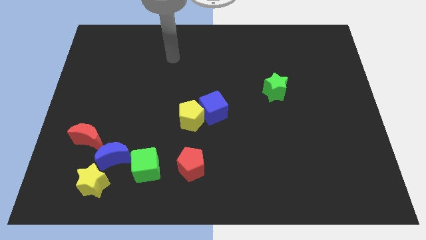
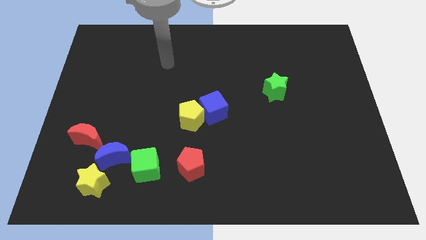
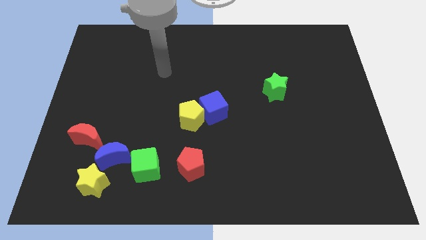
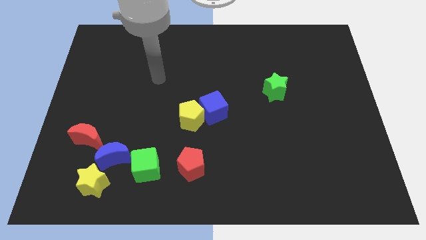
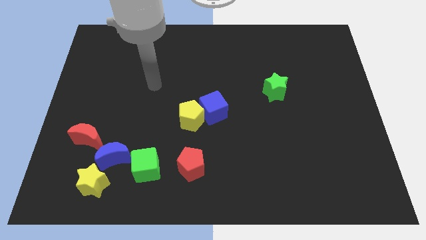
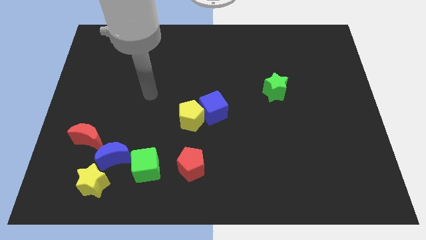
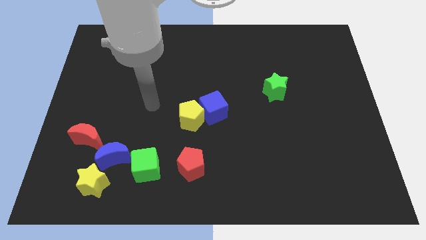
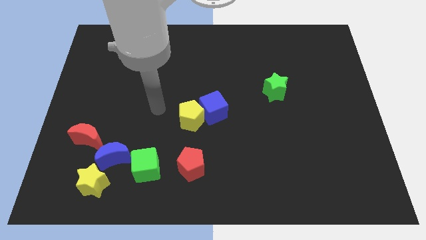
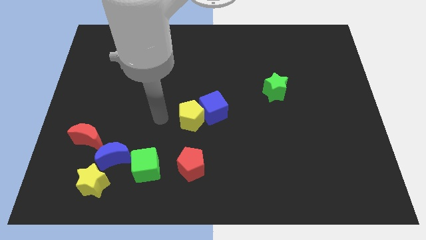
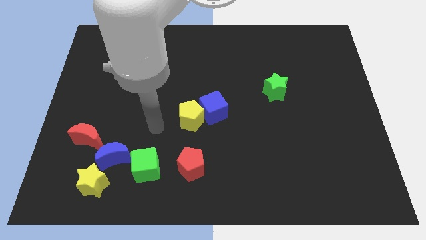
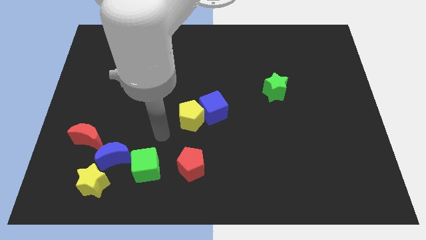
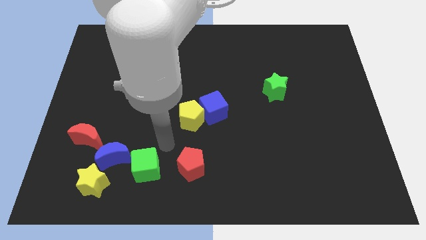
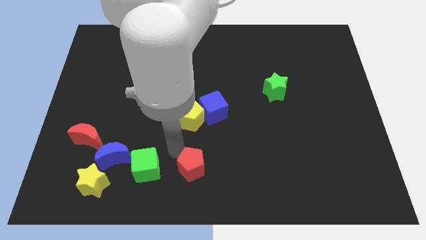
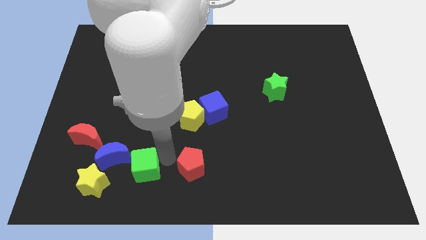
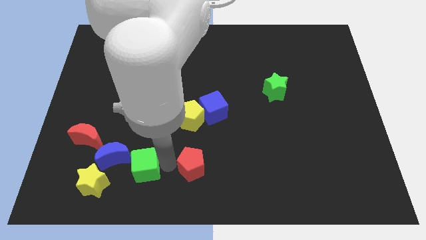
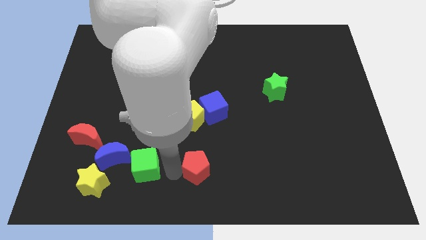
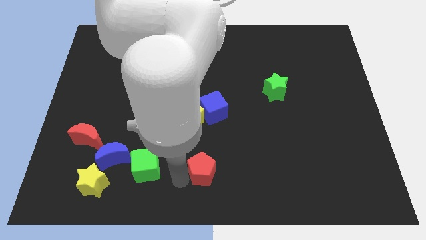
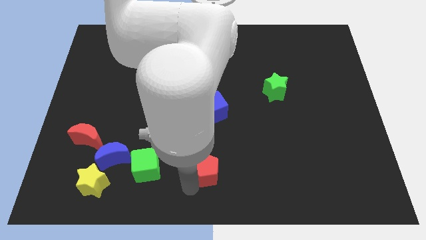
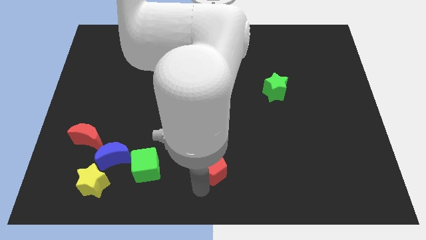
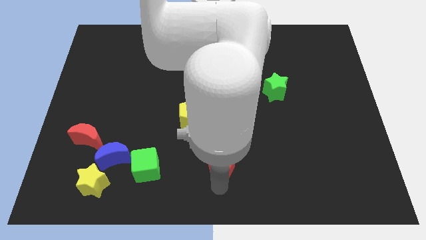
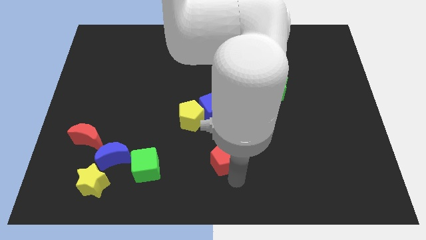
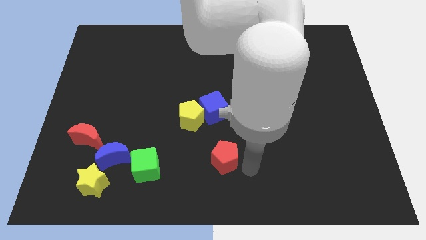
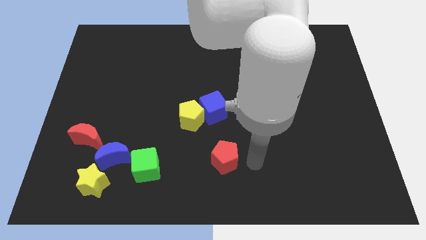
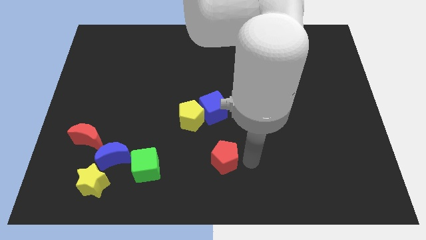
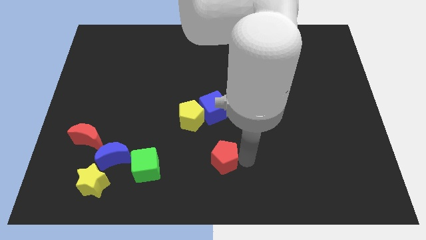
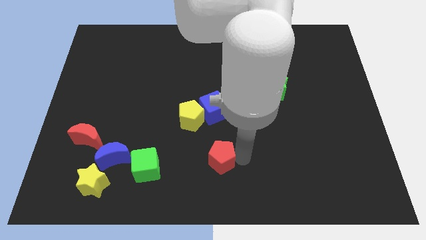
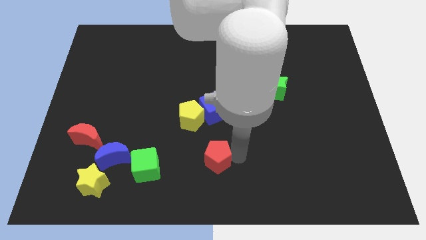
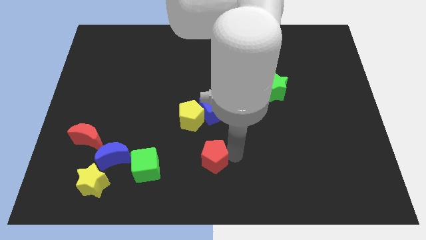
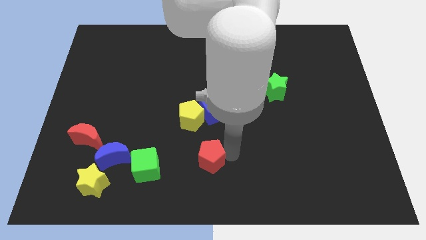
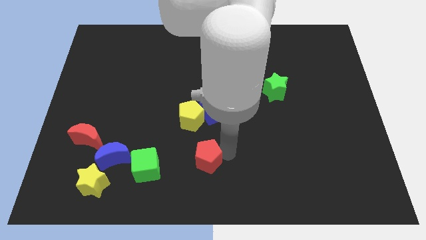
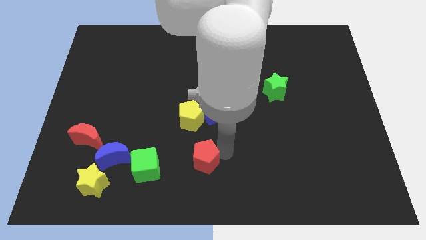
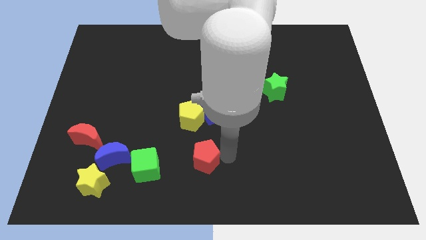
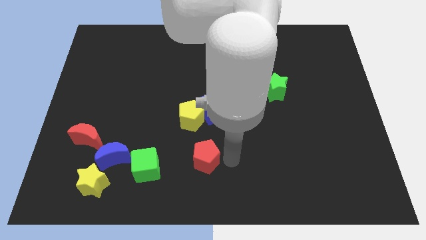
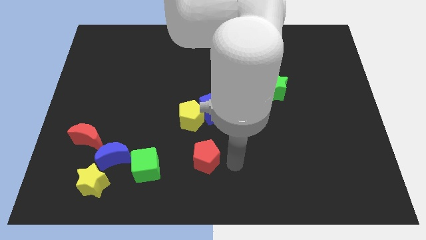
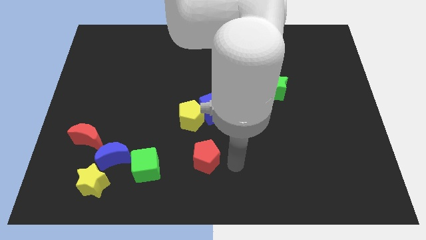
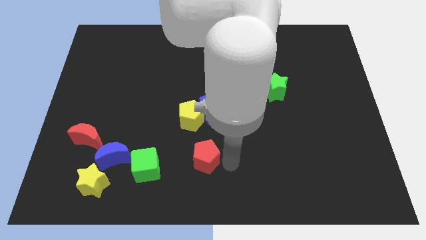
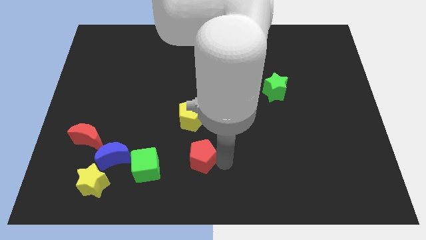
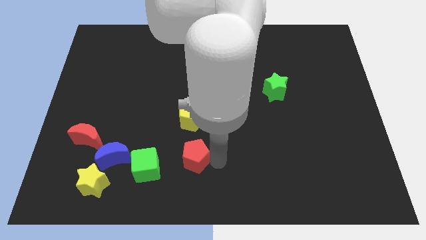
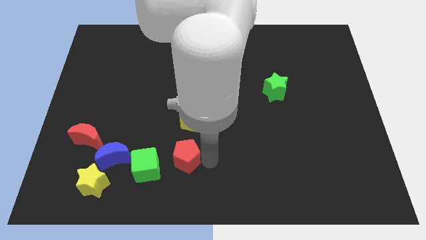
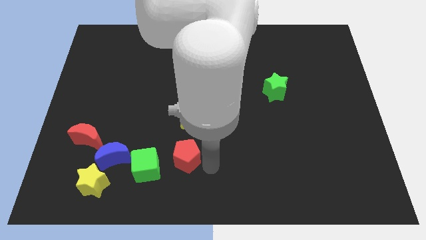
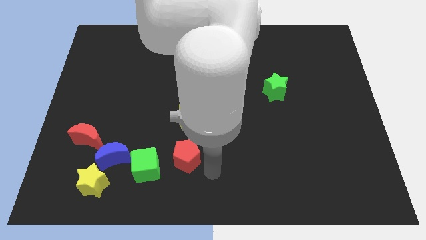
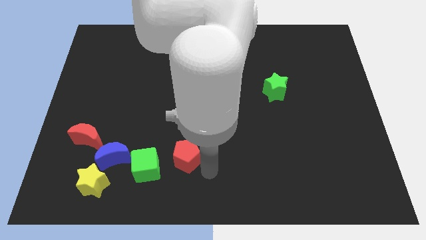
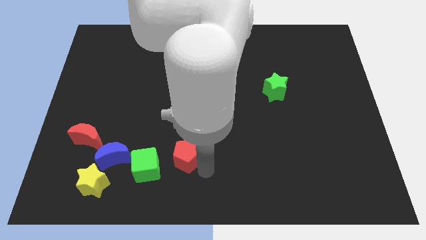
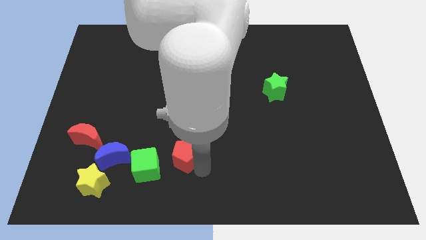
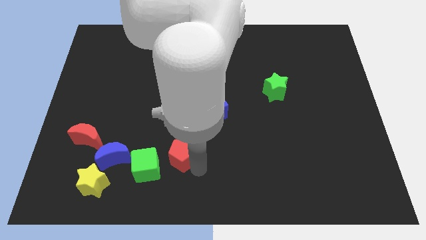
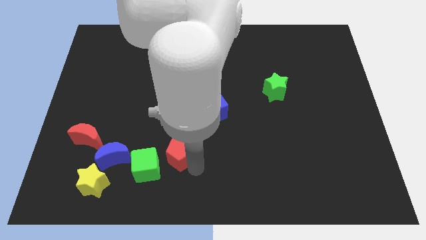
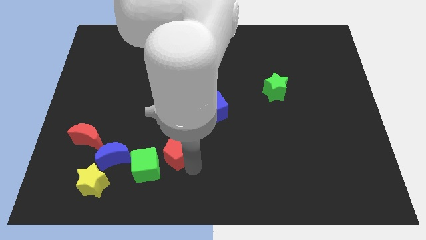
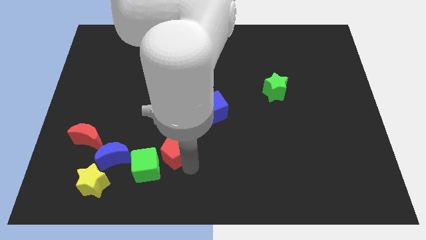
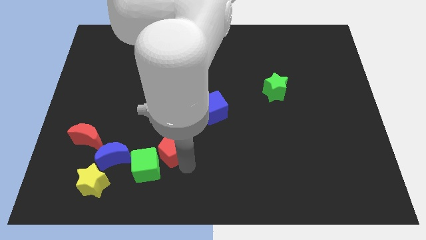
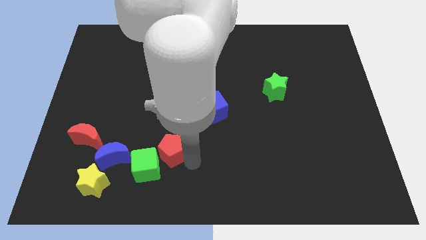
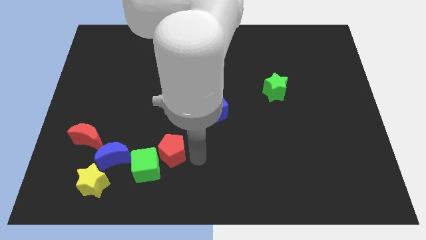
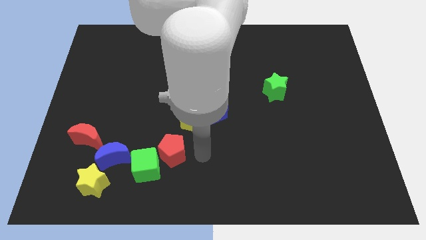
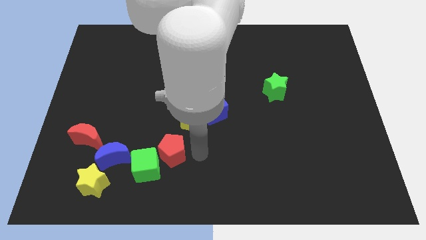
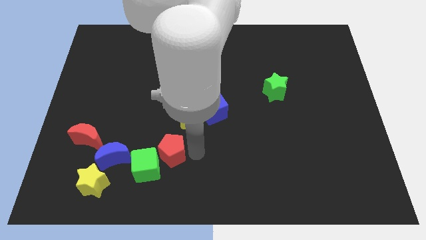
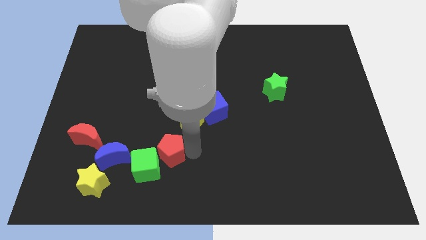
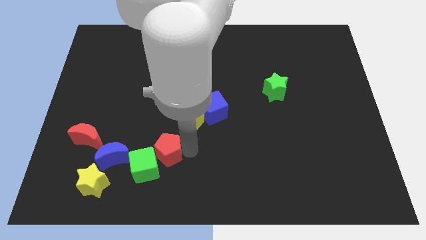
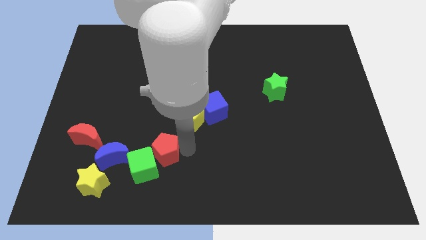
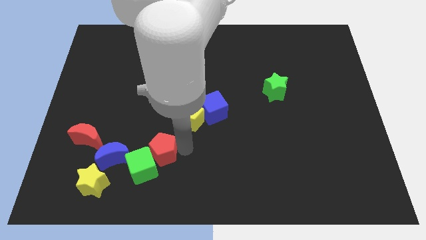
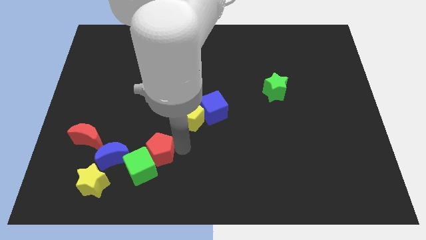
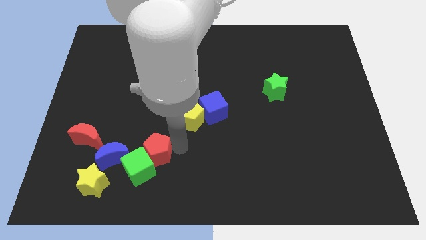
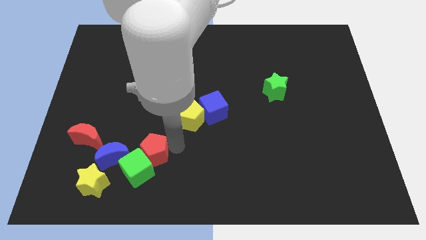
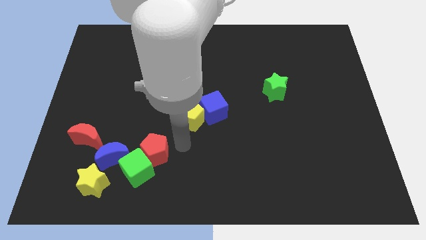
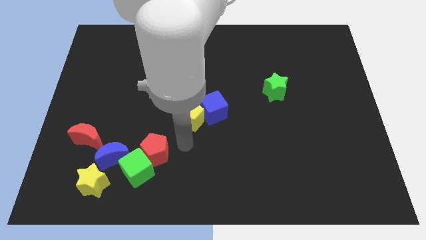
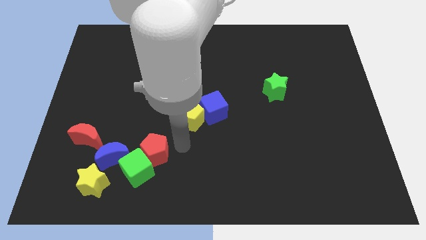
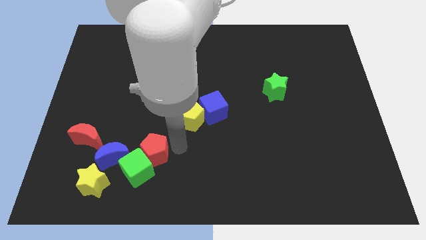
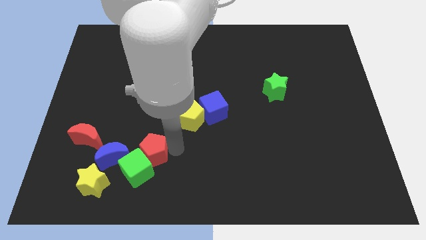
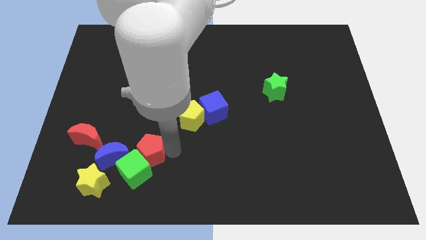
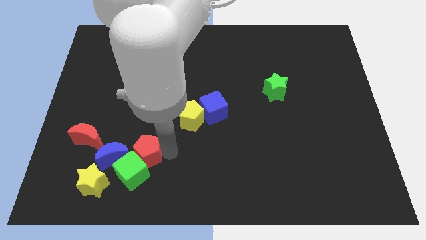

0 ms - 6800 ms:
push the red pentagon to the top right side of the yellow star

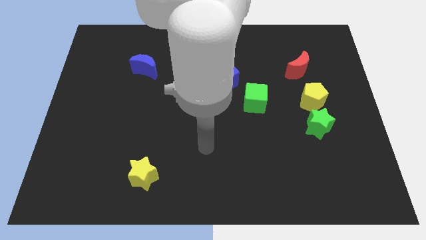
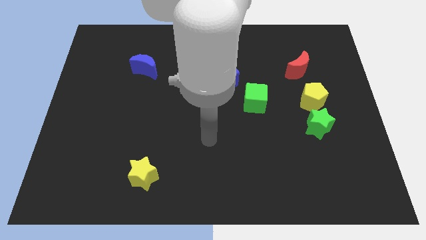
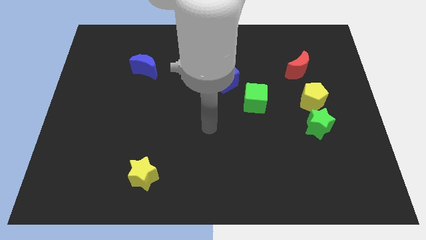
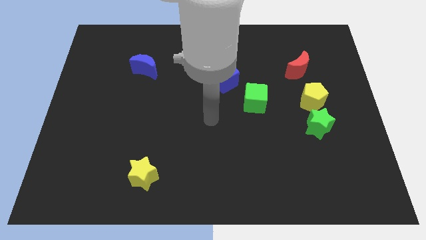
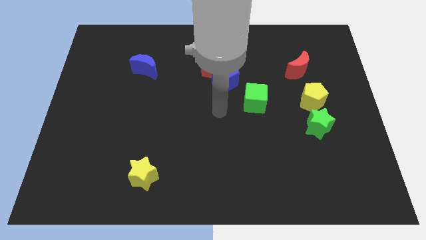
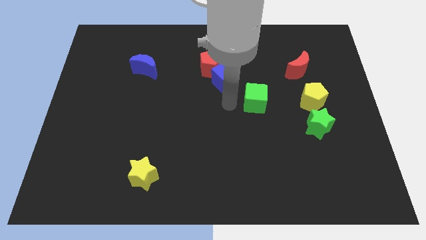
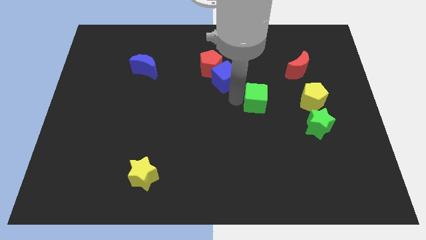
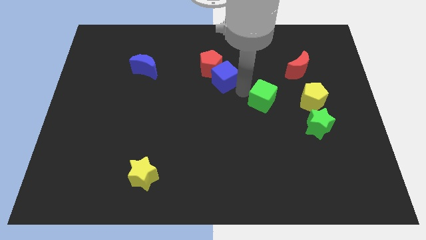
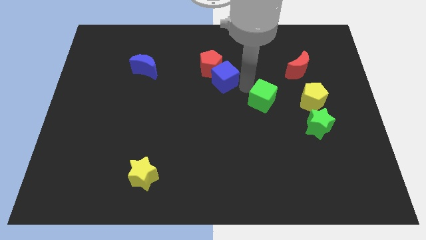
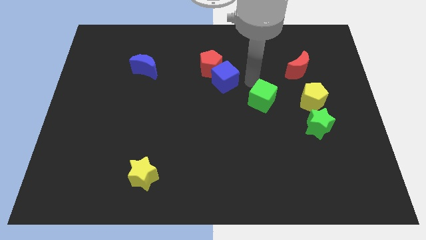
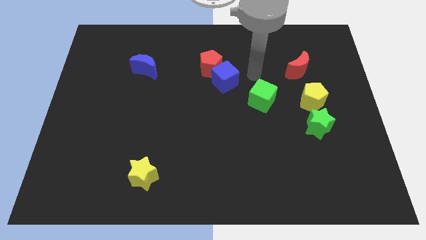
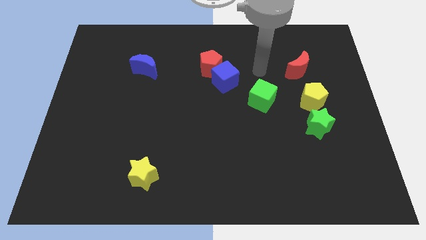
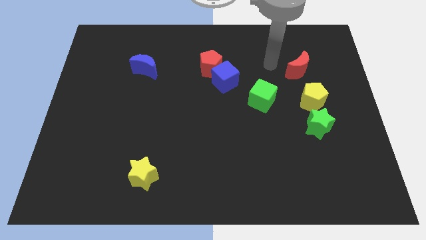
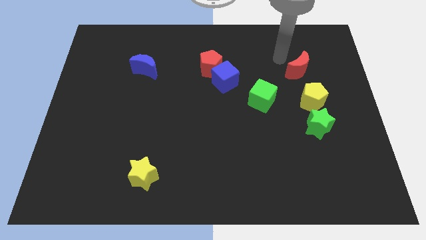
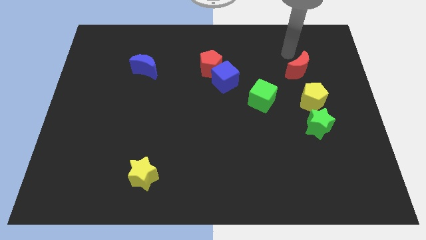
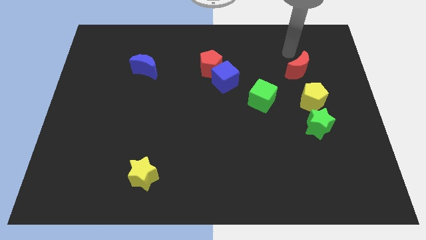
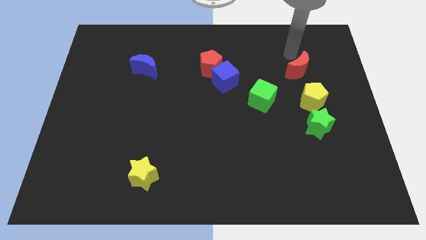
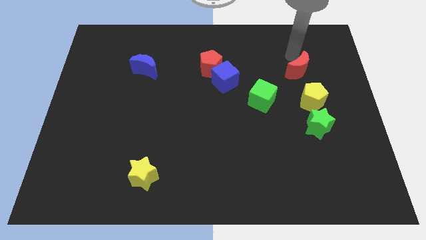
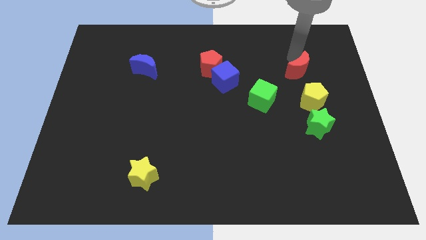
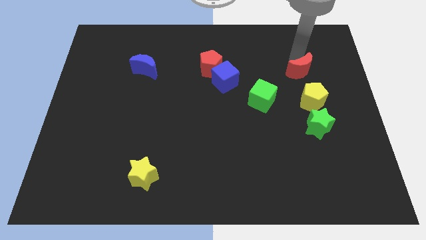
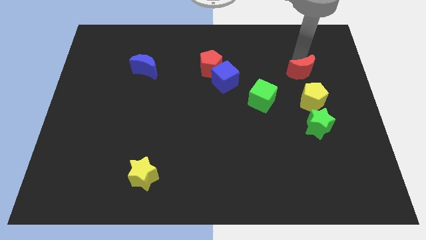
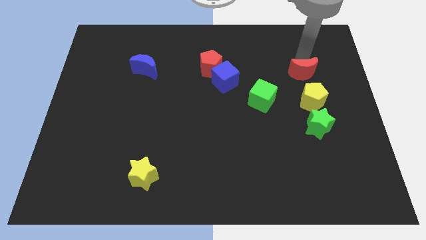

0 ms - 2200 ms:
move the red moon to the top of the green star
